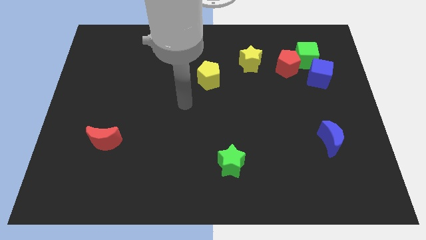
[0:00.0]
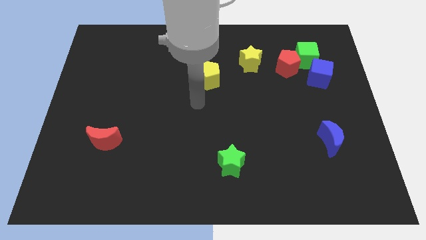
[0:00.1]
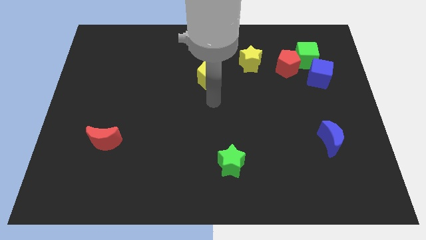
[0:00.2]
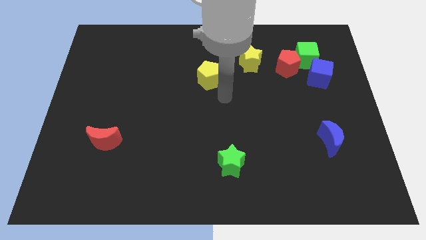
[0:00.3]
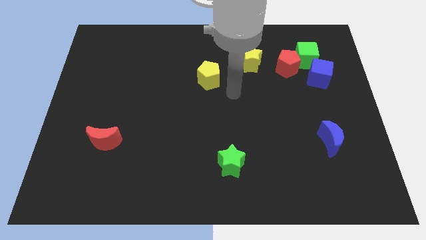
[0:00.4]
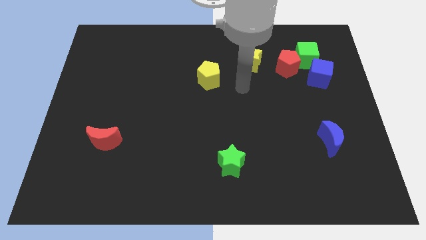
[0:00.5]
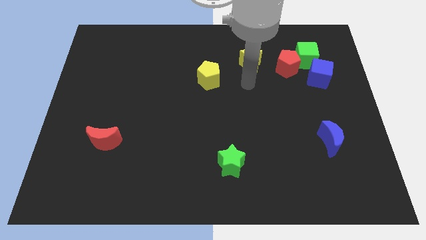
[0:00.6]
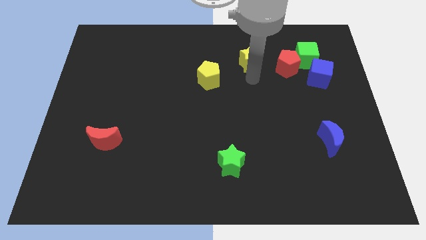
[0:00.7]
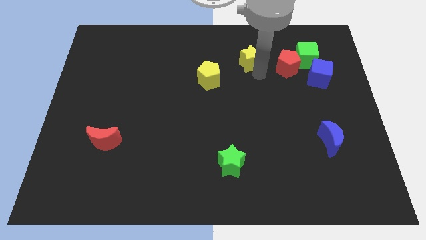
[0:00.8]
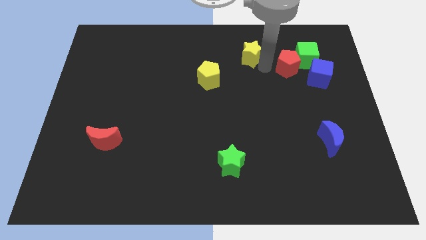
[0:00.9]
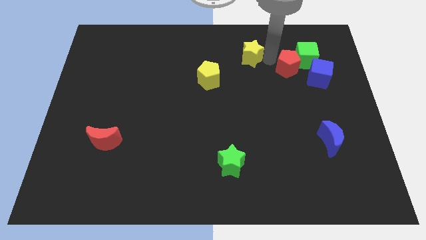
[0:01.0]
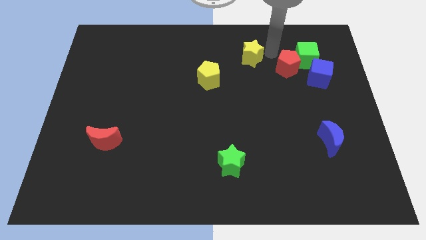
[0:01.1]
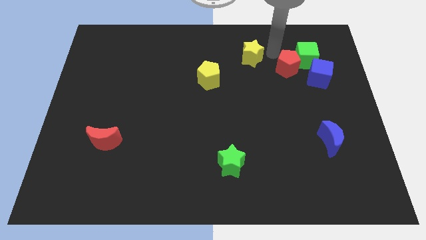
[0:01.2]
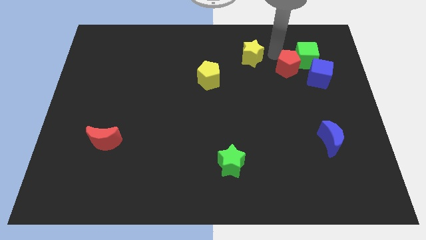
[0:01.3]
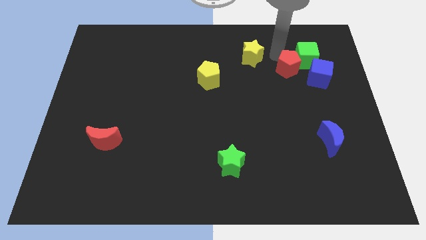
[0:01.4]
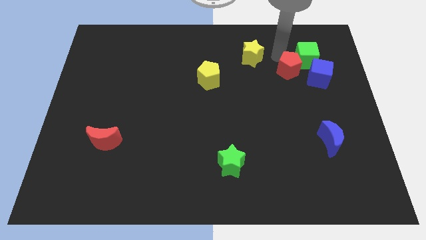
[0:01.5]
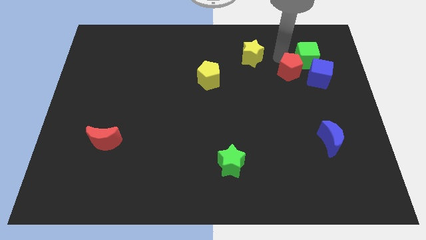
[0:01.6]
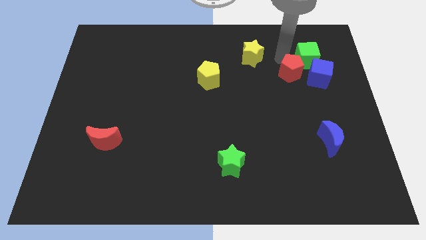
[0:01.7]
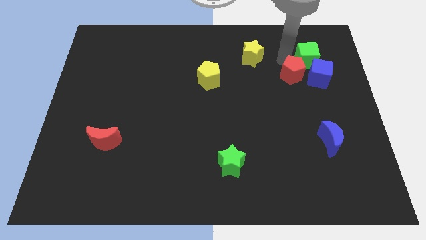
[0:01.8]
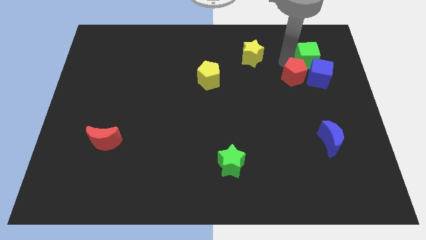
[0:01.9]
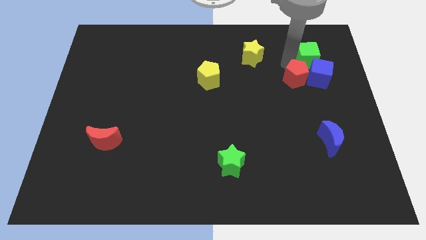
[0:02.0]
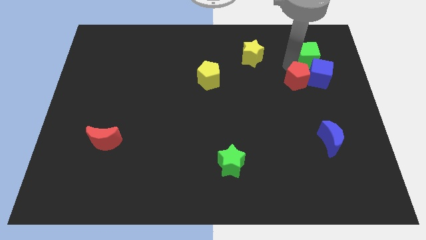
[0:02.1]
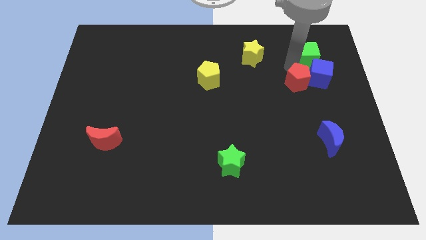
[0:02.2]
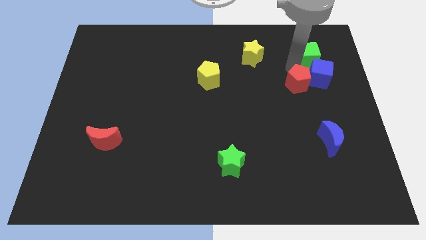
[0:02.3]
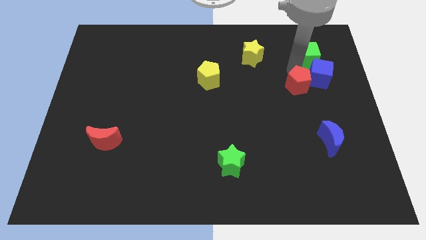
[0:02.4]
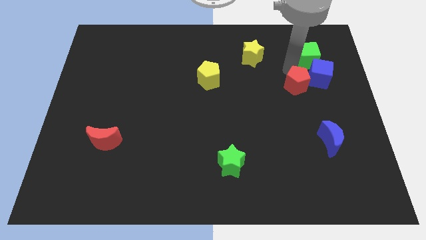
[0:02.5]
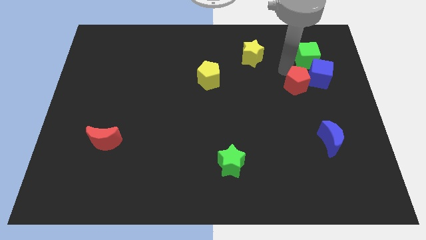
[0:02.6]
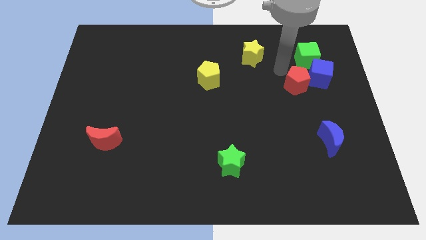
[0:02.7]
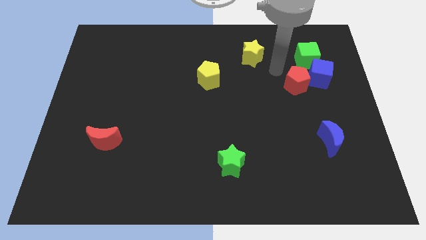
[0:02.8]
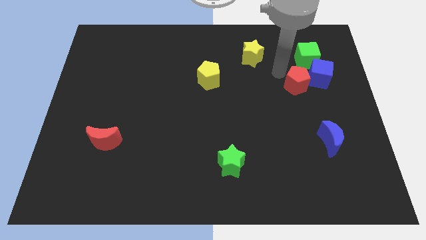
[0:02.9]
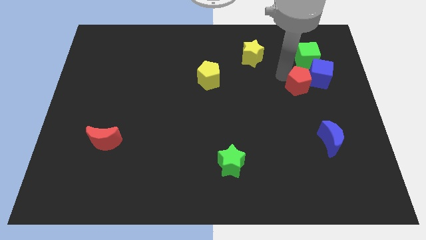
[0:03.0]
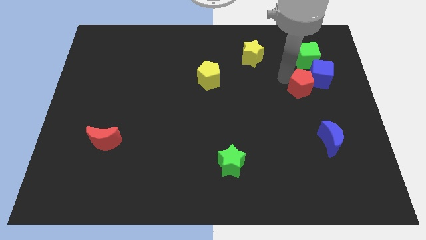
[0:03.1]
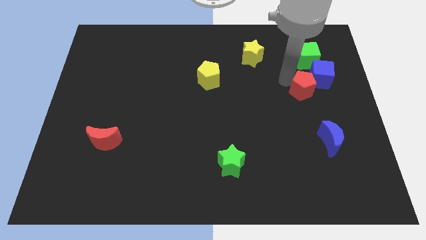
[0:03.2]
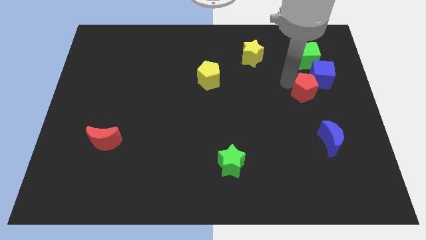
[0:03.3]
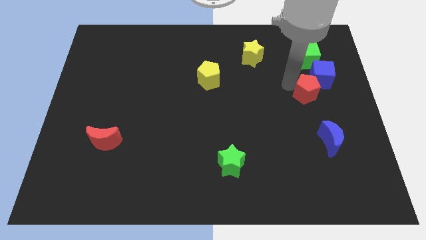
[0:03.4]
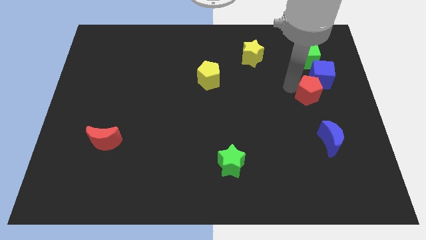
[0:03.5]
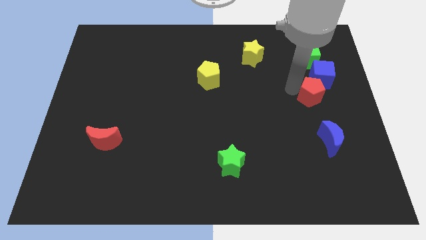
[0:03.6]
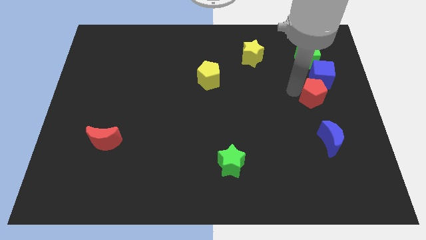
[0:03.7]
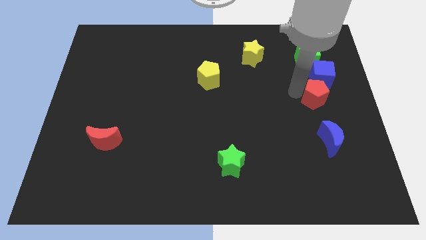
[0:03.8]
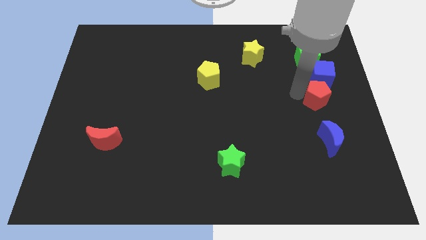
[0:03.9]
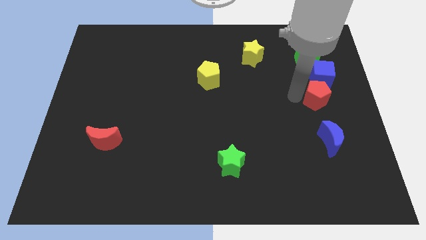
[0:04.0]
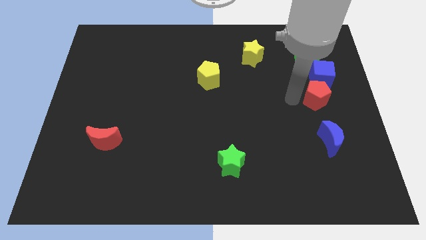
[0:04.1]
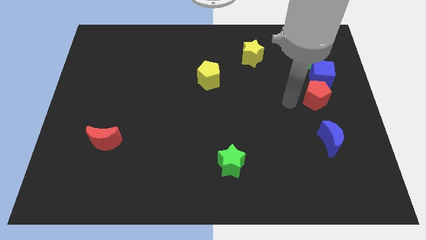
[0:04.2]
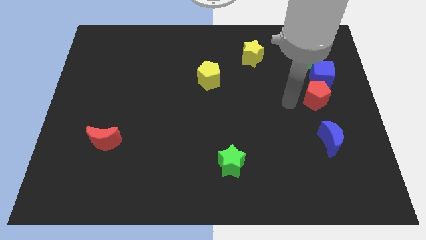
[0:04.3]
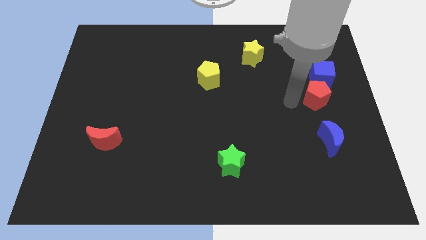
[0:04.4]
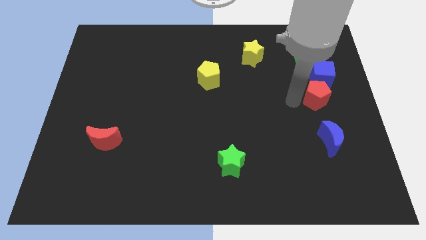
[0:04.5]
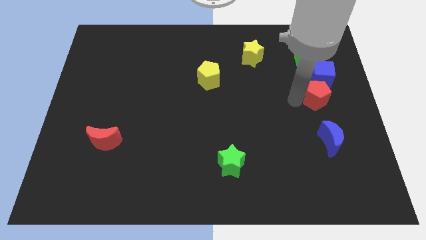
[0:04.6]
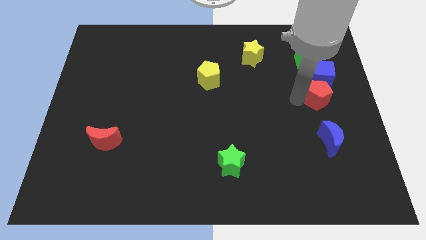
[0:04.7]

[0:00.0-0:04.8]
slide the red pentagon to the right side

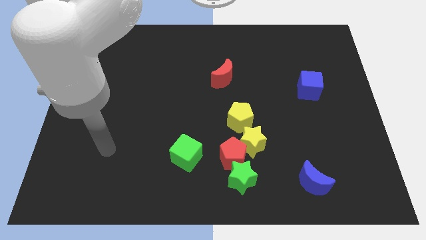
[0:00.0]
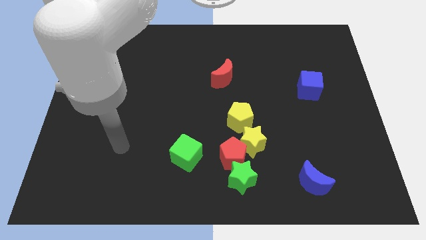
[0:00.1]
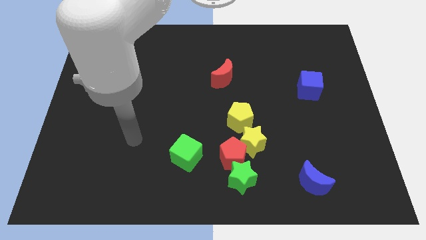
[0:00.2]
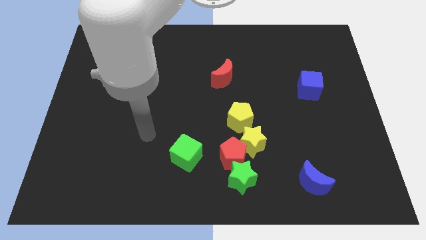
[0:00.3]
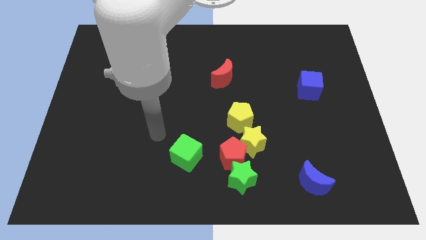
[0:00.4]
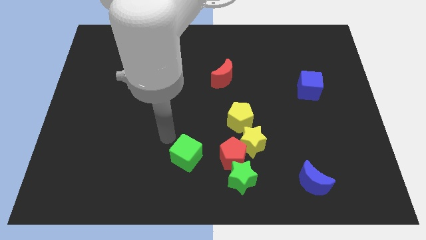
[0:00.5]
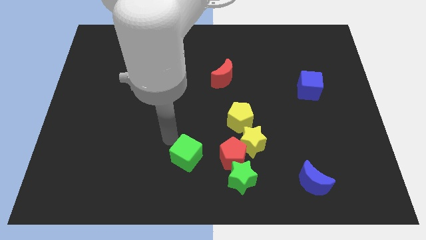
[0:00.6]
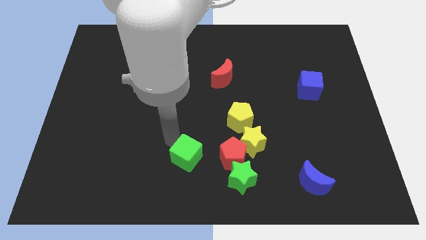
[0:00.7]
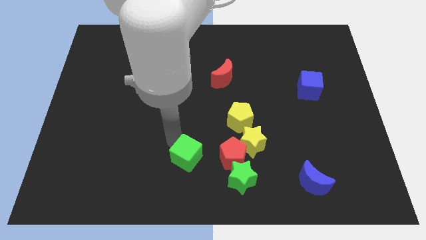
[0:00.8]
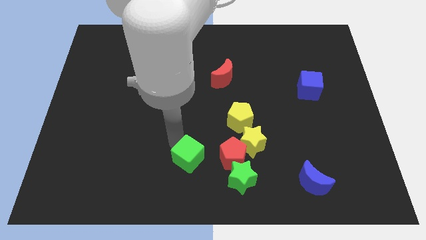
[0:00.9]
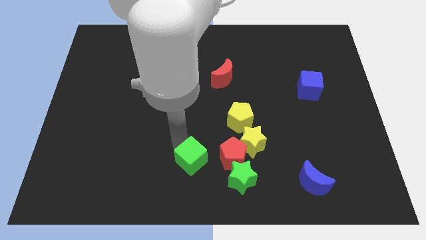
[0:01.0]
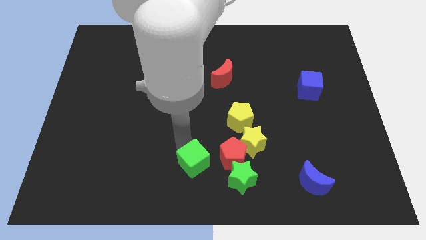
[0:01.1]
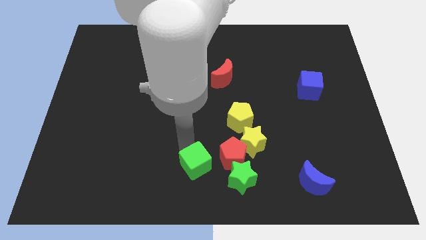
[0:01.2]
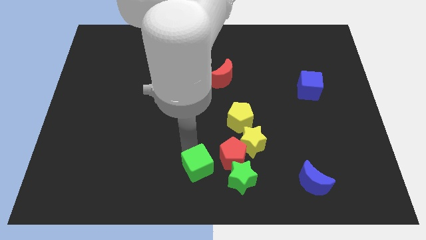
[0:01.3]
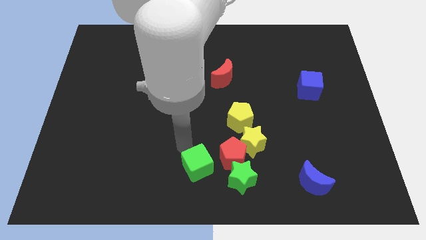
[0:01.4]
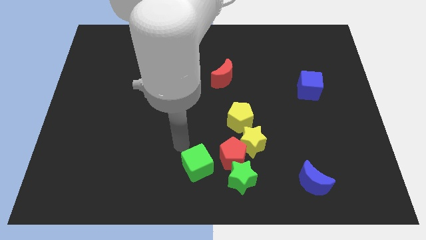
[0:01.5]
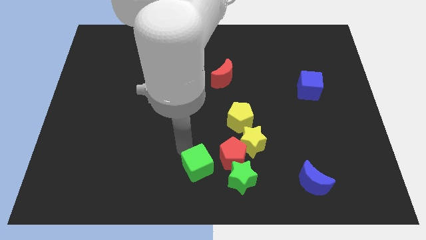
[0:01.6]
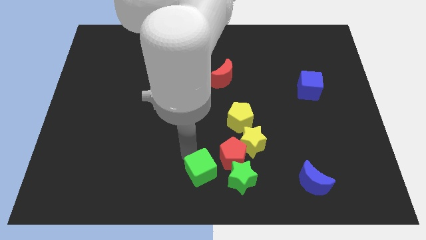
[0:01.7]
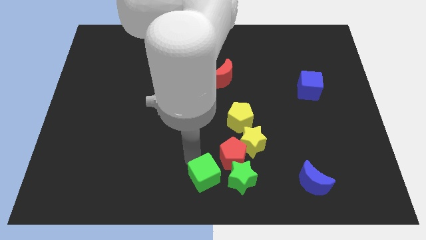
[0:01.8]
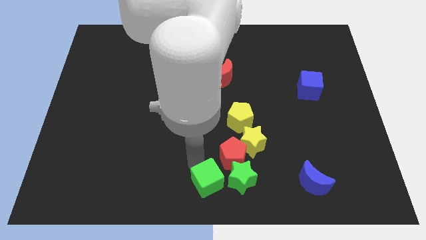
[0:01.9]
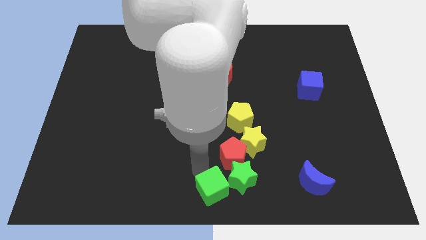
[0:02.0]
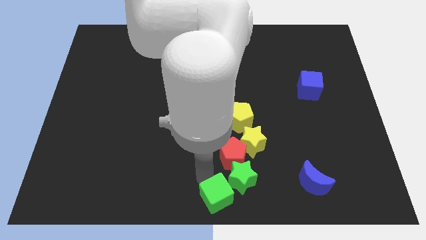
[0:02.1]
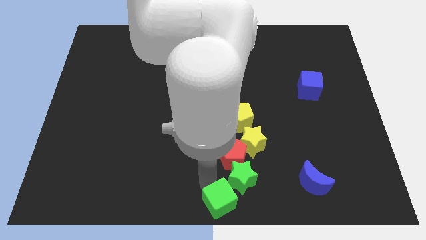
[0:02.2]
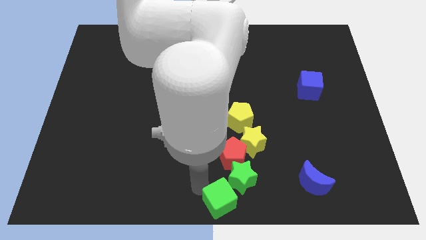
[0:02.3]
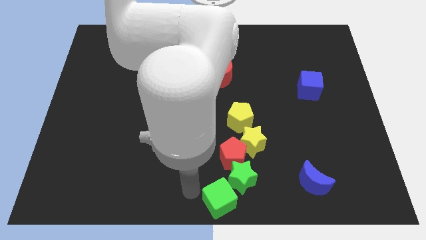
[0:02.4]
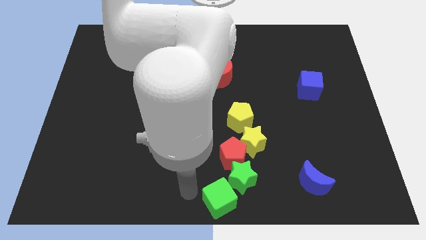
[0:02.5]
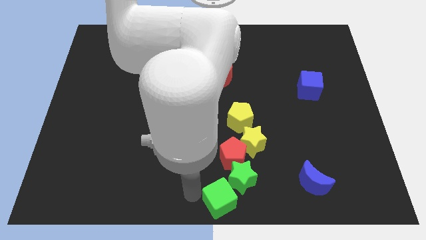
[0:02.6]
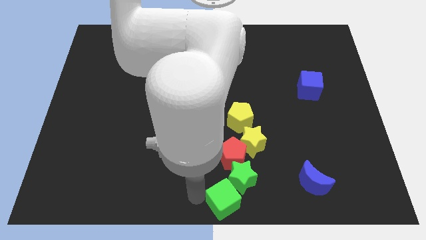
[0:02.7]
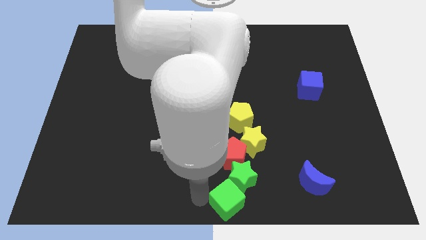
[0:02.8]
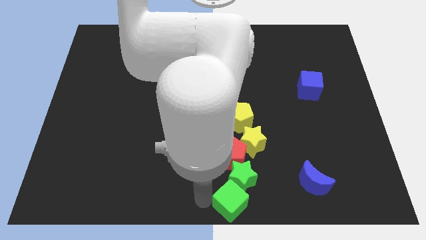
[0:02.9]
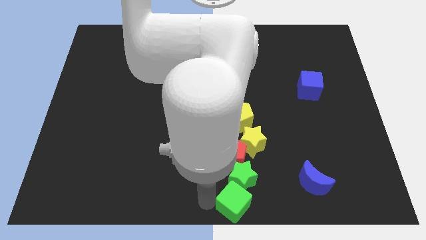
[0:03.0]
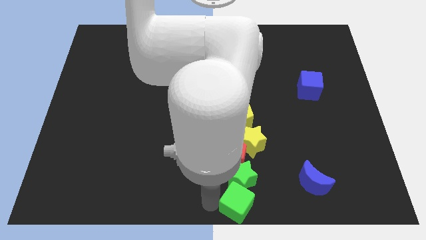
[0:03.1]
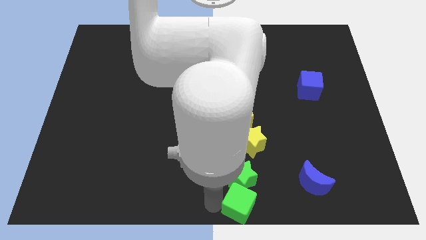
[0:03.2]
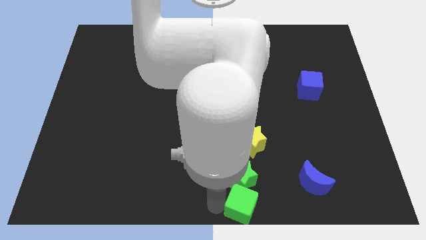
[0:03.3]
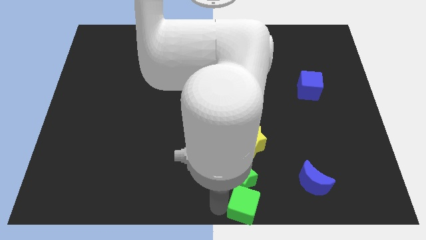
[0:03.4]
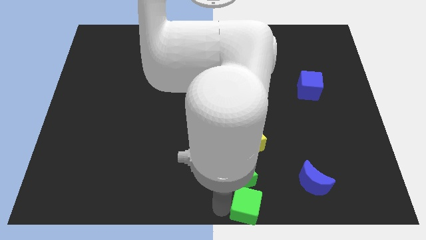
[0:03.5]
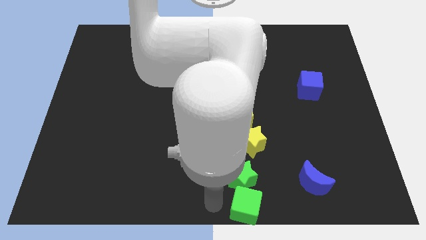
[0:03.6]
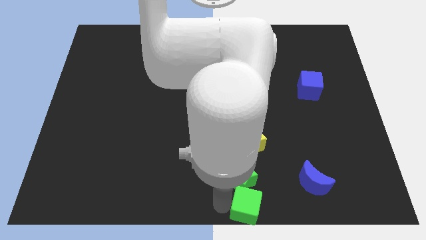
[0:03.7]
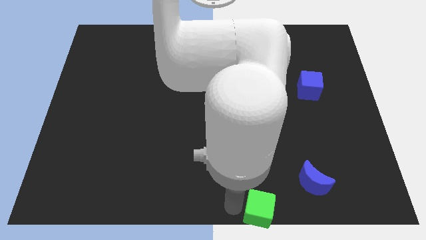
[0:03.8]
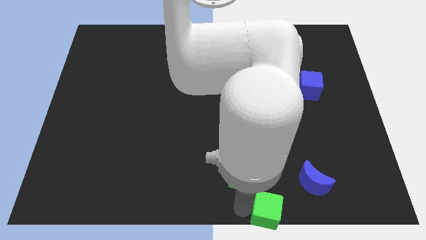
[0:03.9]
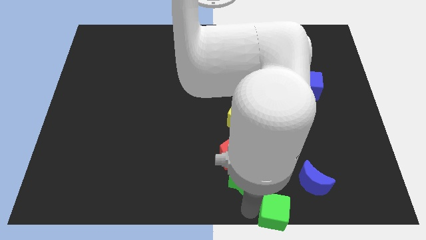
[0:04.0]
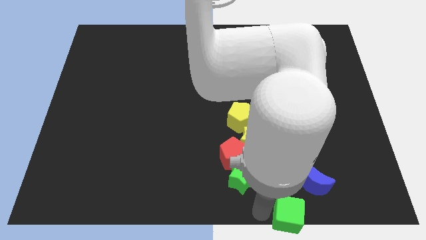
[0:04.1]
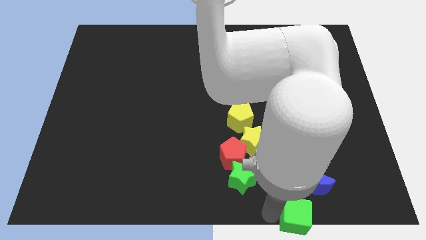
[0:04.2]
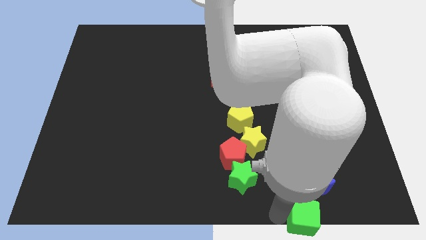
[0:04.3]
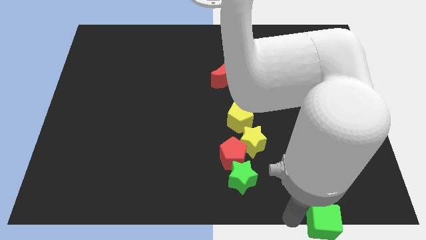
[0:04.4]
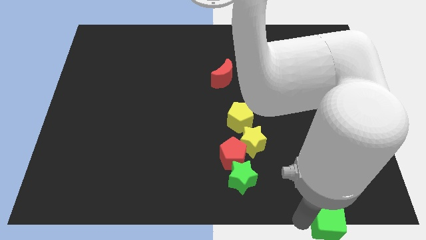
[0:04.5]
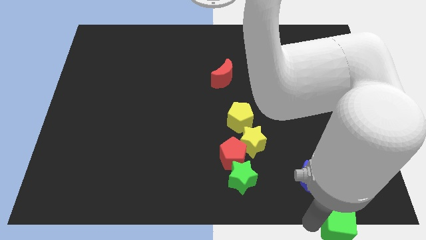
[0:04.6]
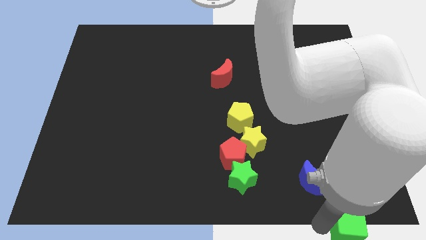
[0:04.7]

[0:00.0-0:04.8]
push the green cube to the bottom right of the board
